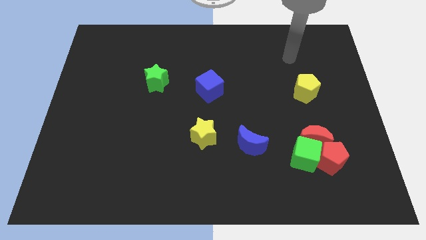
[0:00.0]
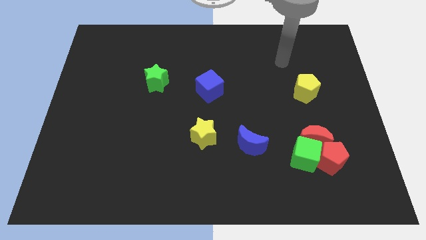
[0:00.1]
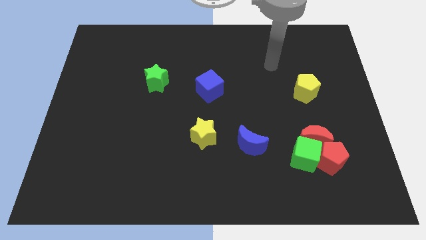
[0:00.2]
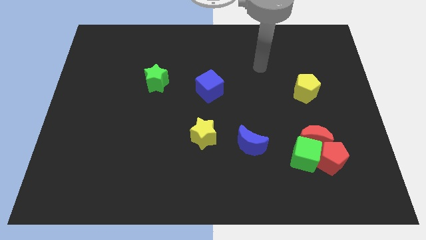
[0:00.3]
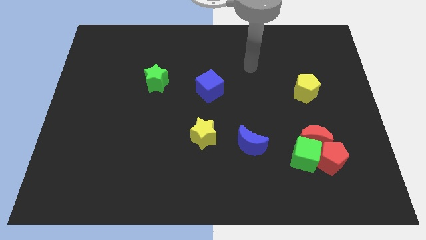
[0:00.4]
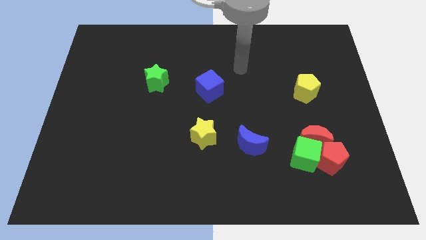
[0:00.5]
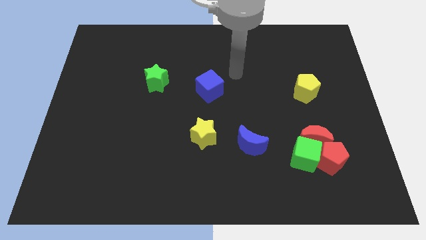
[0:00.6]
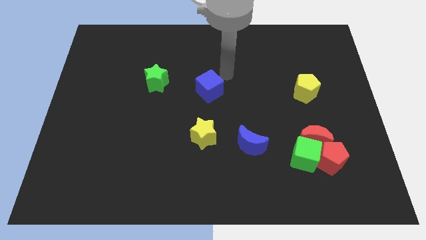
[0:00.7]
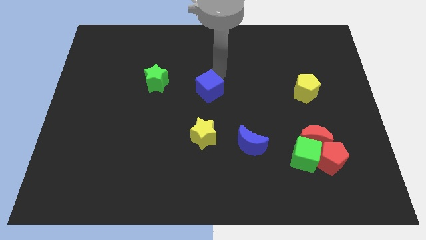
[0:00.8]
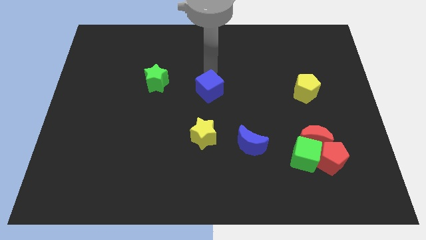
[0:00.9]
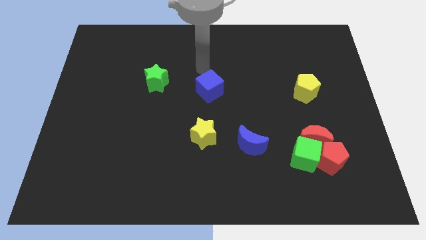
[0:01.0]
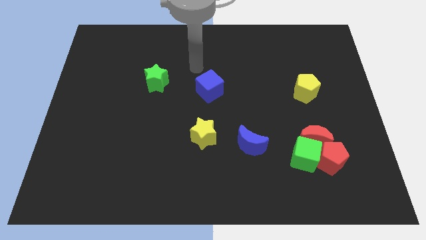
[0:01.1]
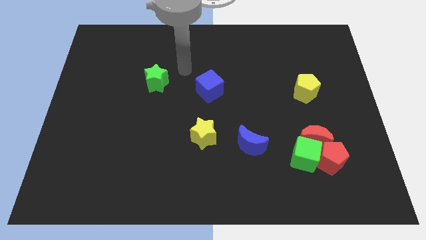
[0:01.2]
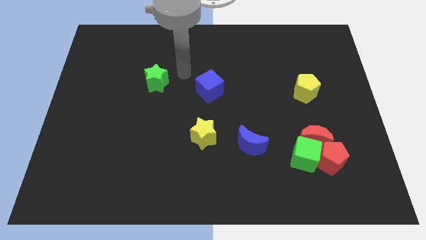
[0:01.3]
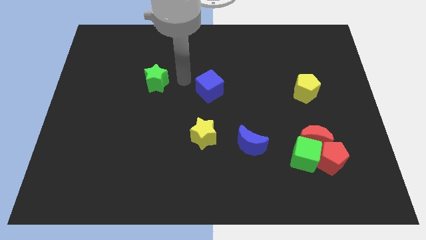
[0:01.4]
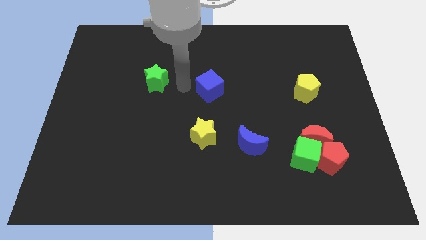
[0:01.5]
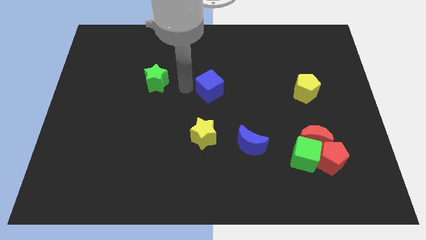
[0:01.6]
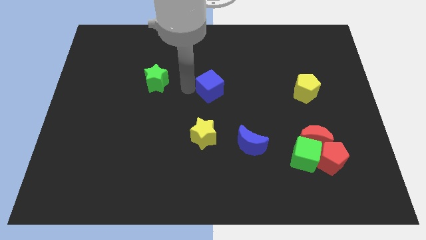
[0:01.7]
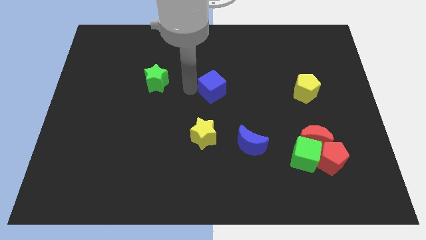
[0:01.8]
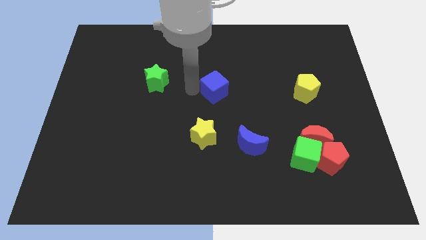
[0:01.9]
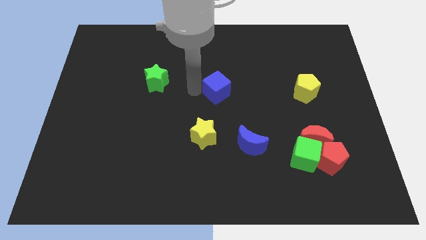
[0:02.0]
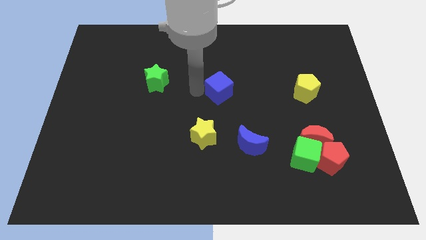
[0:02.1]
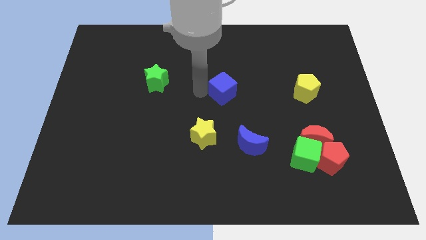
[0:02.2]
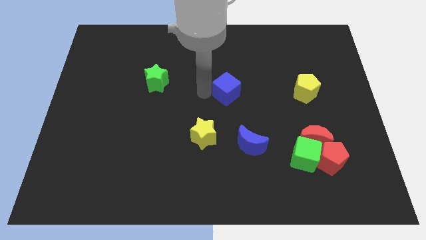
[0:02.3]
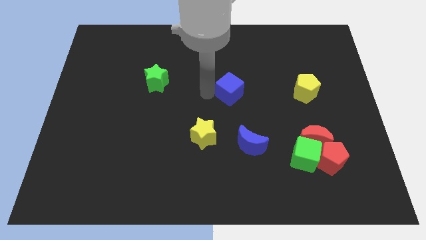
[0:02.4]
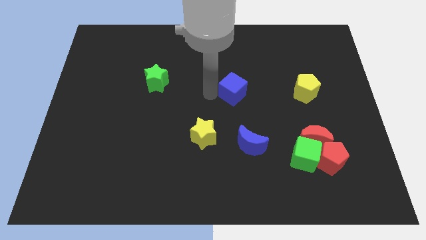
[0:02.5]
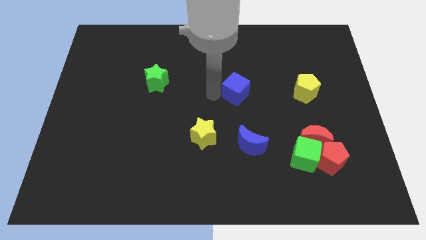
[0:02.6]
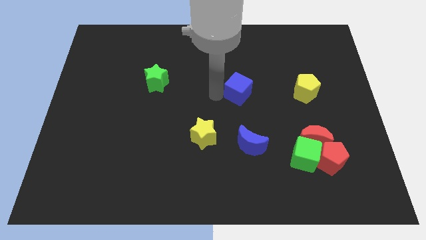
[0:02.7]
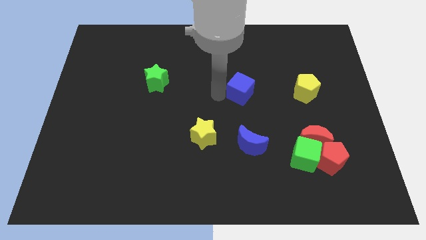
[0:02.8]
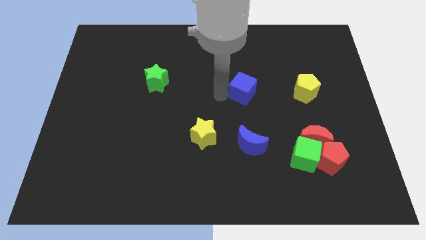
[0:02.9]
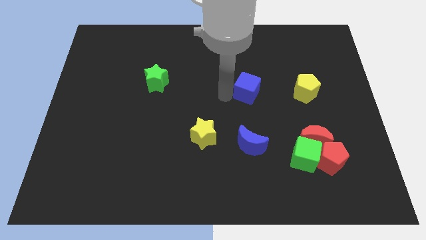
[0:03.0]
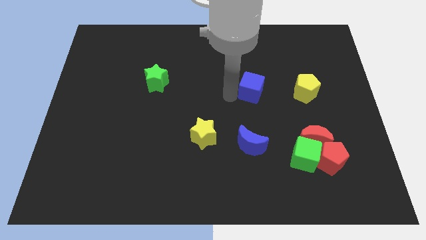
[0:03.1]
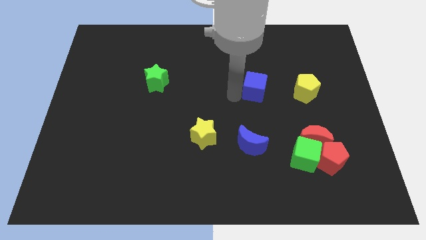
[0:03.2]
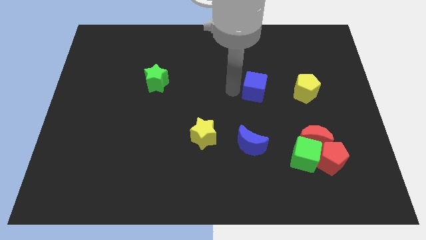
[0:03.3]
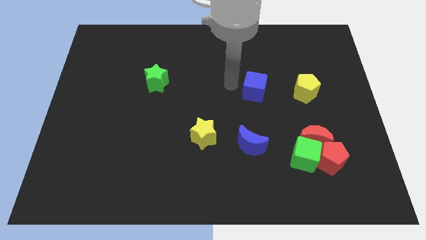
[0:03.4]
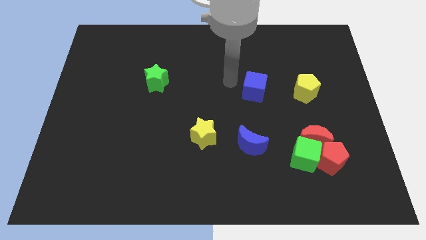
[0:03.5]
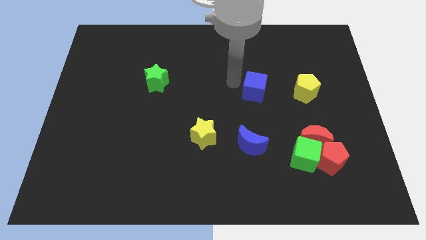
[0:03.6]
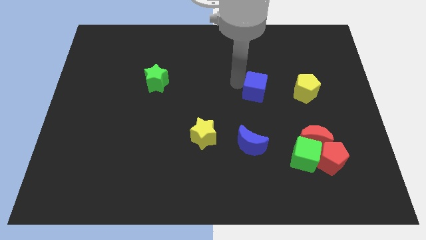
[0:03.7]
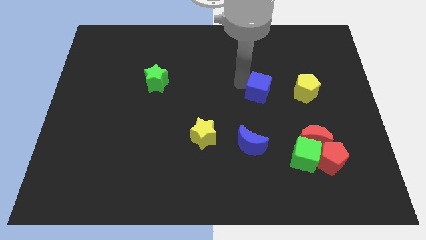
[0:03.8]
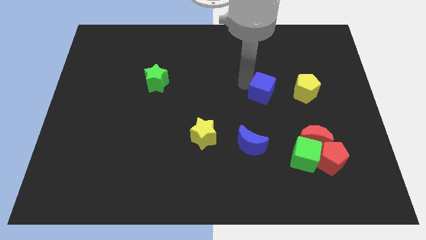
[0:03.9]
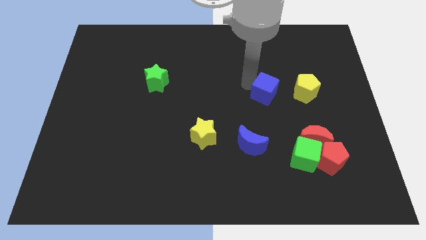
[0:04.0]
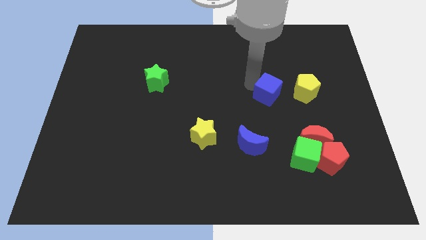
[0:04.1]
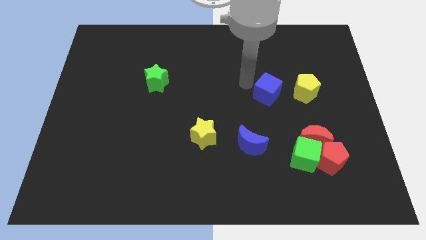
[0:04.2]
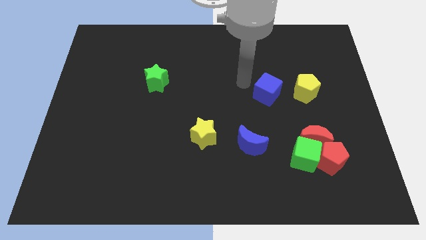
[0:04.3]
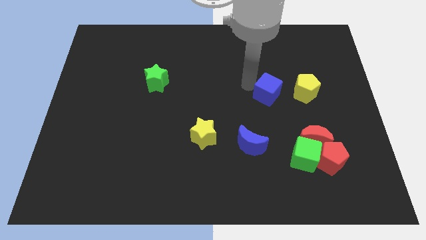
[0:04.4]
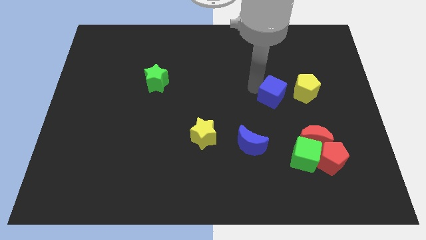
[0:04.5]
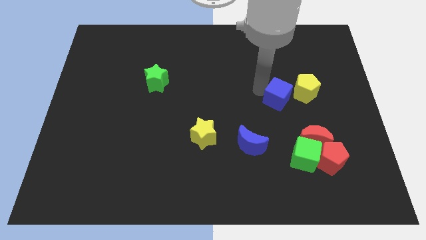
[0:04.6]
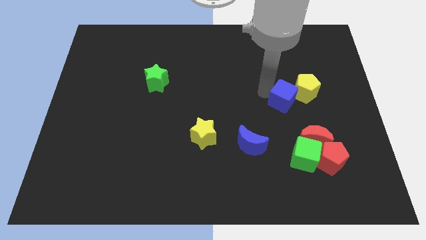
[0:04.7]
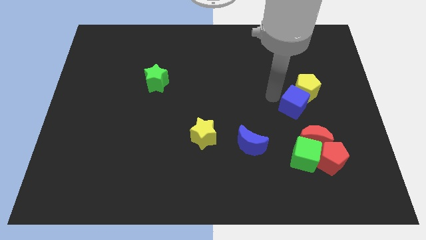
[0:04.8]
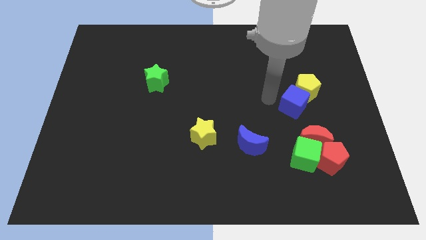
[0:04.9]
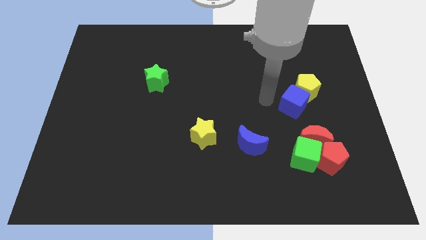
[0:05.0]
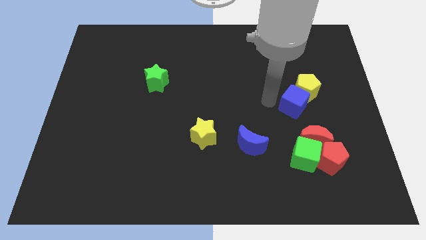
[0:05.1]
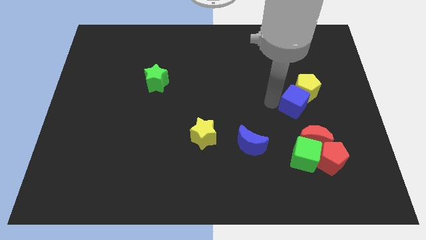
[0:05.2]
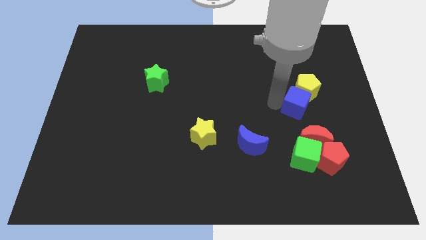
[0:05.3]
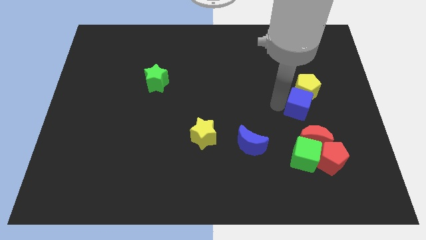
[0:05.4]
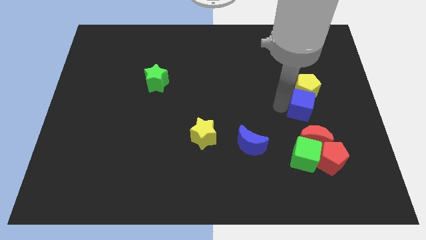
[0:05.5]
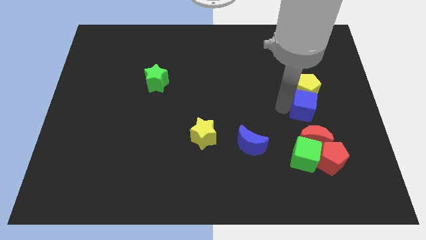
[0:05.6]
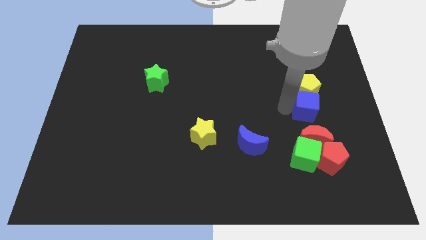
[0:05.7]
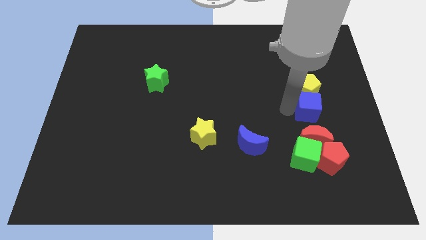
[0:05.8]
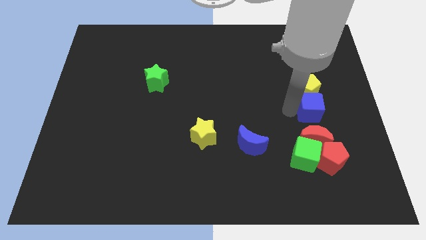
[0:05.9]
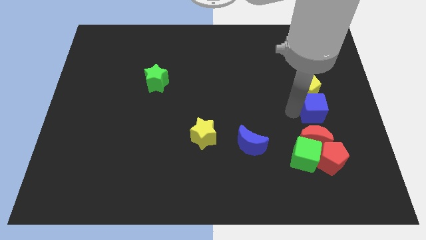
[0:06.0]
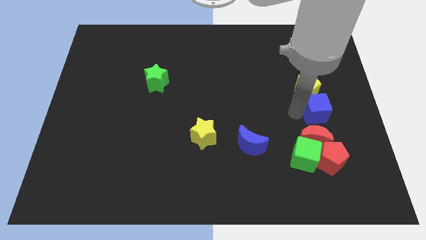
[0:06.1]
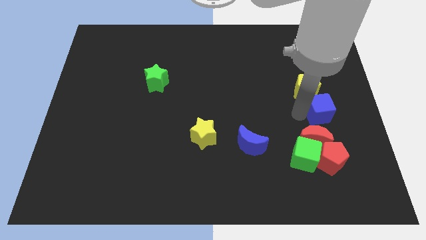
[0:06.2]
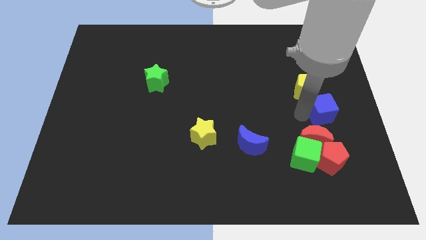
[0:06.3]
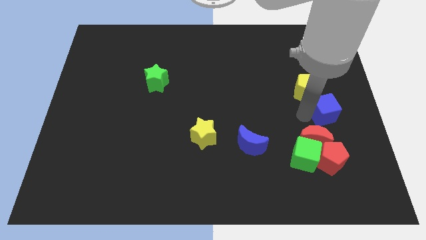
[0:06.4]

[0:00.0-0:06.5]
move the blue cube to the center right
